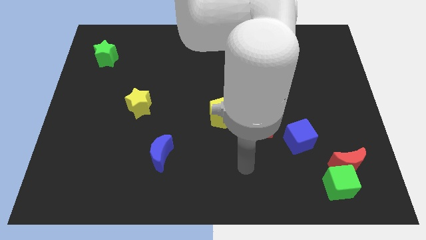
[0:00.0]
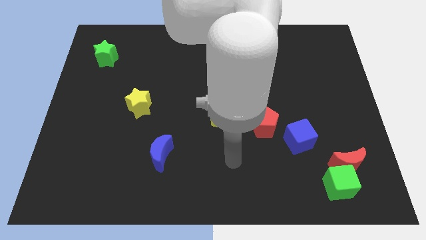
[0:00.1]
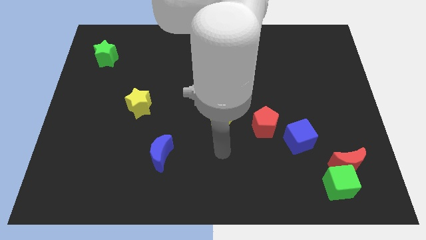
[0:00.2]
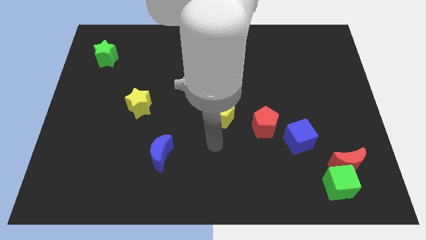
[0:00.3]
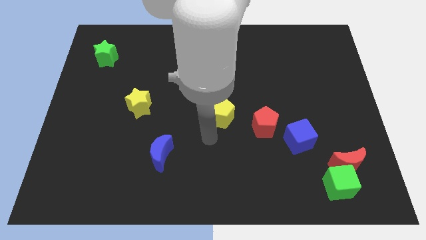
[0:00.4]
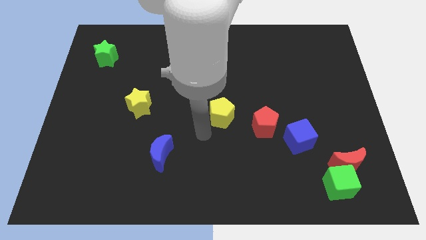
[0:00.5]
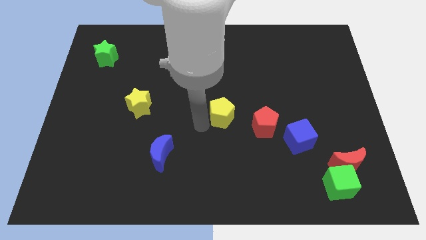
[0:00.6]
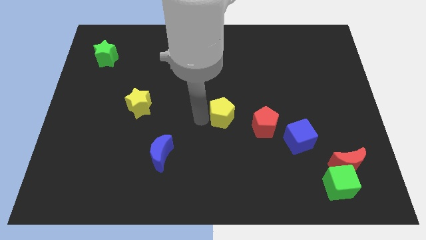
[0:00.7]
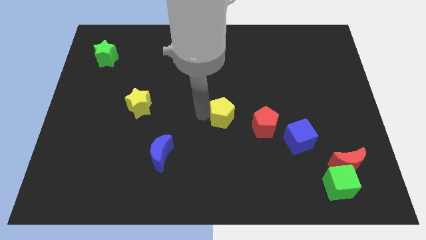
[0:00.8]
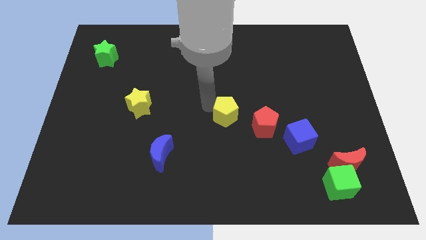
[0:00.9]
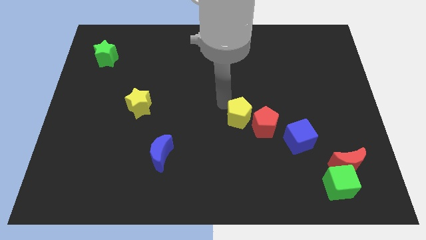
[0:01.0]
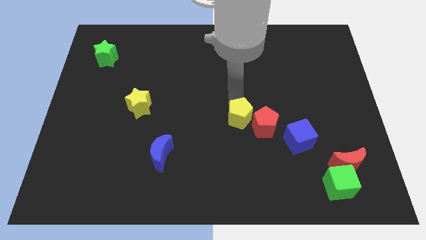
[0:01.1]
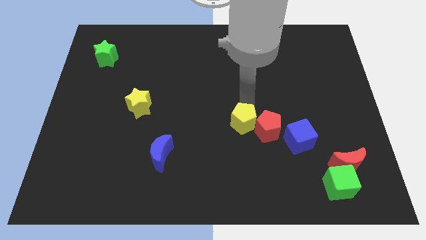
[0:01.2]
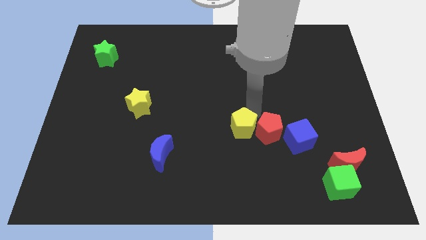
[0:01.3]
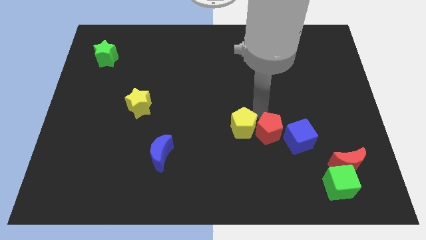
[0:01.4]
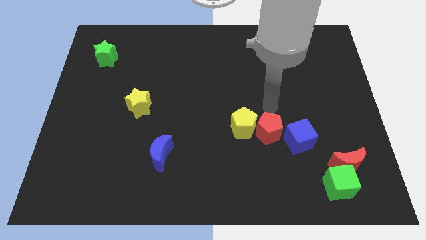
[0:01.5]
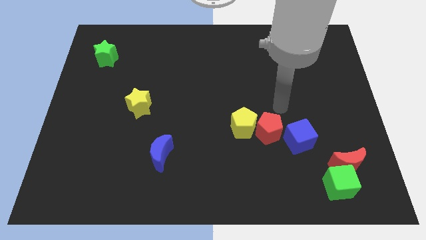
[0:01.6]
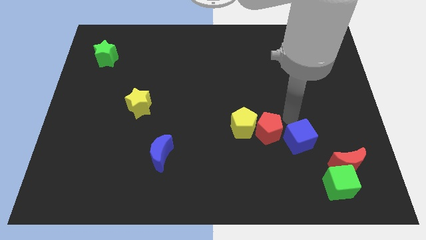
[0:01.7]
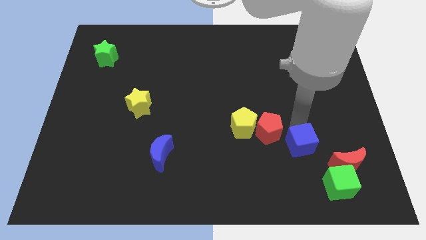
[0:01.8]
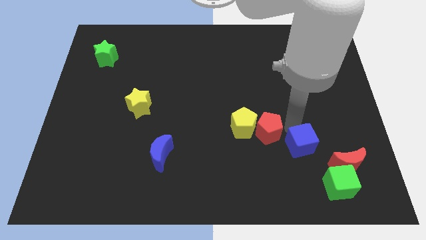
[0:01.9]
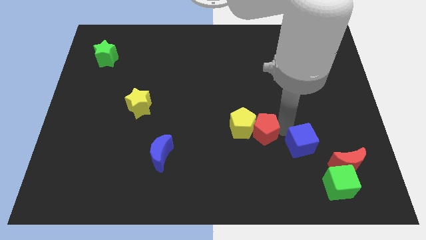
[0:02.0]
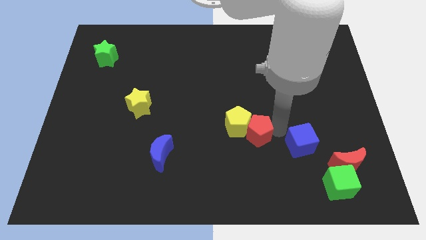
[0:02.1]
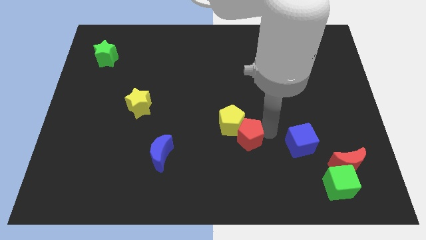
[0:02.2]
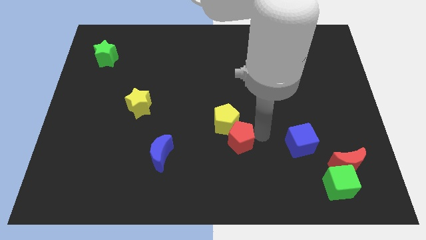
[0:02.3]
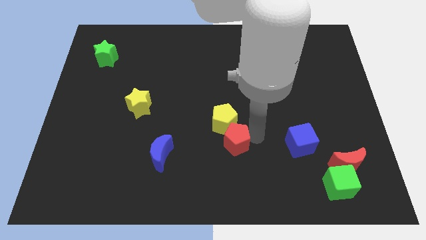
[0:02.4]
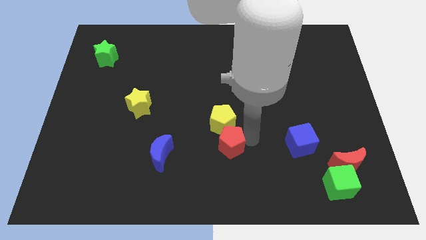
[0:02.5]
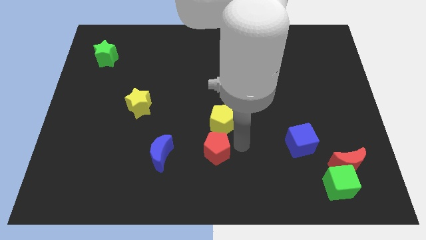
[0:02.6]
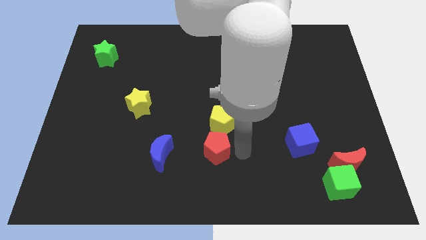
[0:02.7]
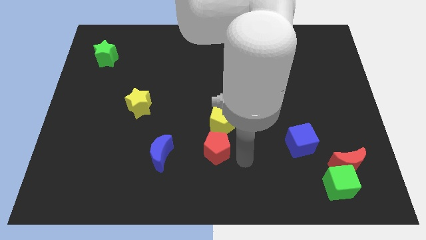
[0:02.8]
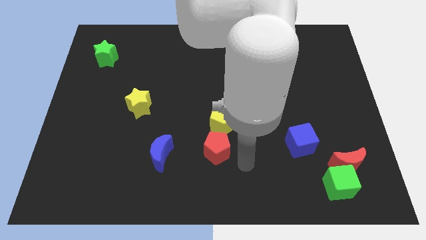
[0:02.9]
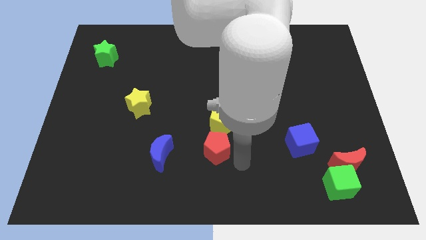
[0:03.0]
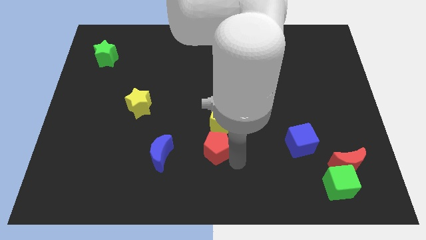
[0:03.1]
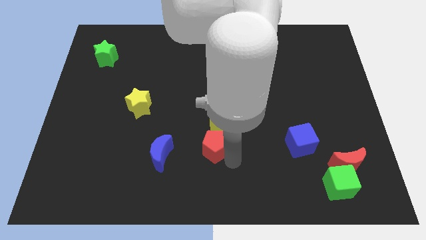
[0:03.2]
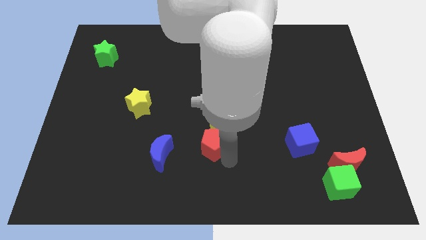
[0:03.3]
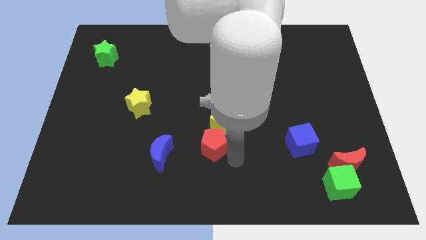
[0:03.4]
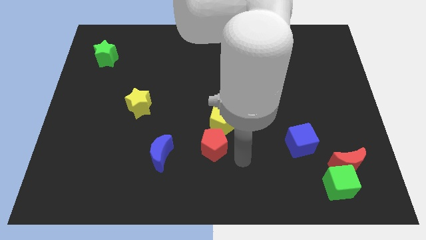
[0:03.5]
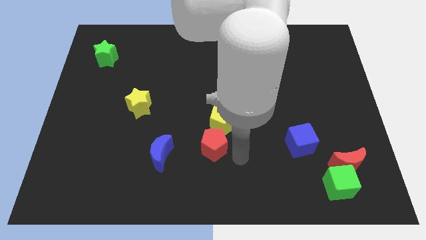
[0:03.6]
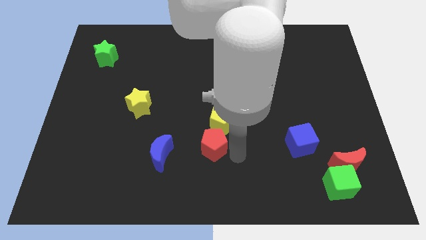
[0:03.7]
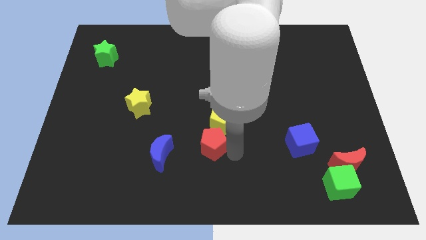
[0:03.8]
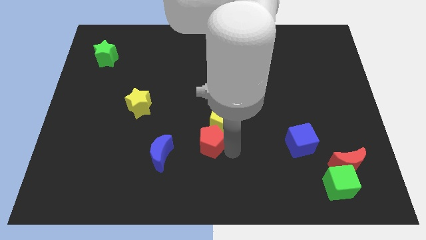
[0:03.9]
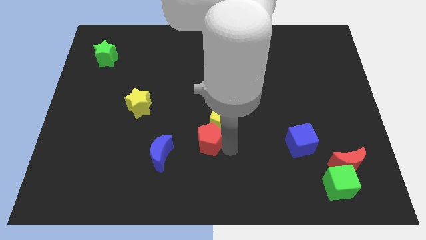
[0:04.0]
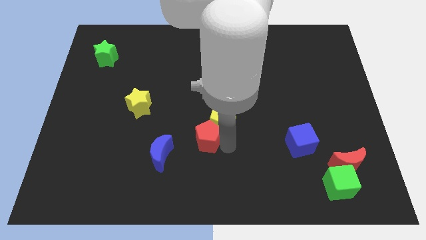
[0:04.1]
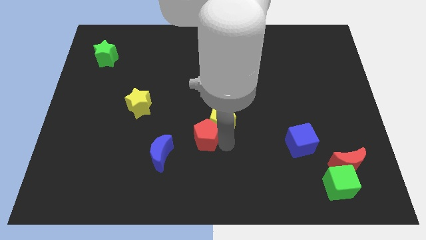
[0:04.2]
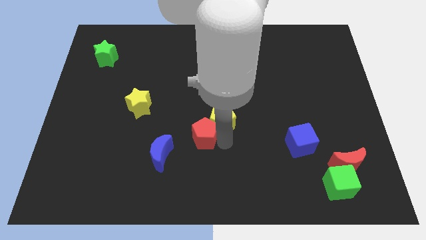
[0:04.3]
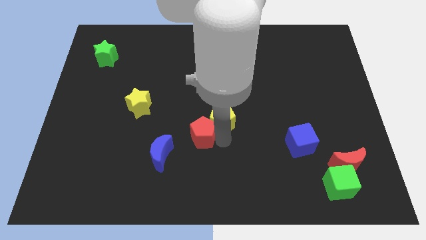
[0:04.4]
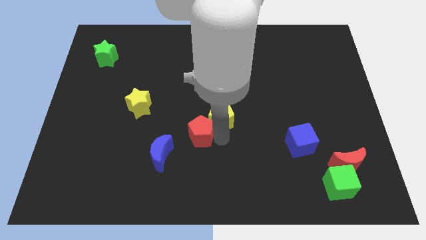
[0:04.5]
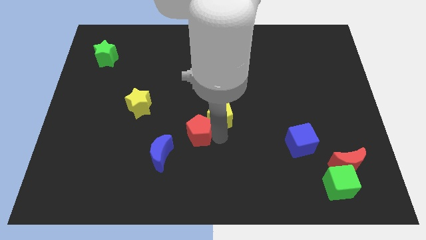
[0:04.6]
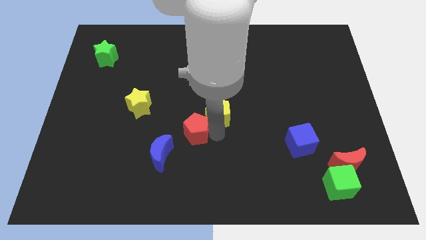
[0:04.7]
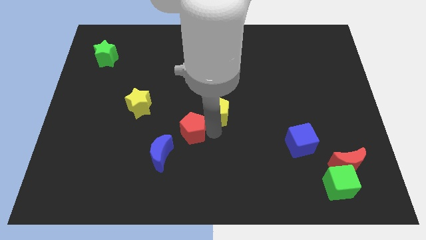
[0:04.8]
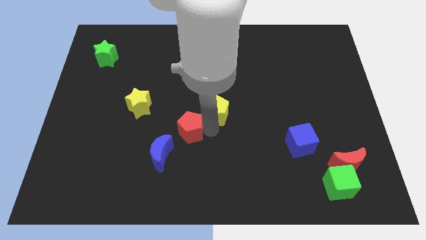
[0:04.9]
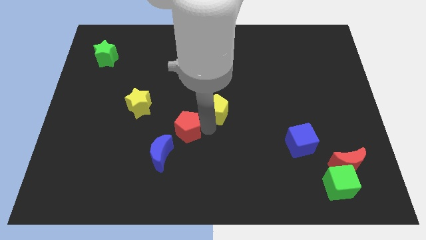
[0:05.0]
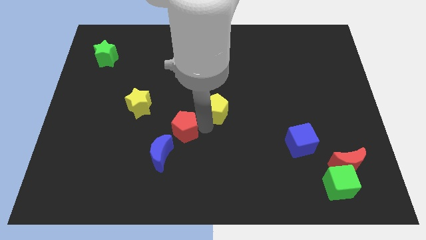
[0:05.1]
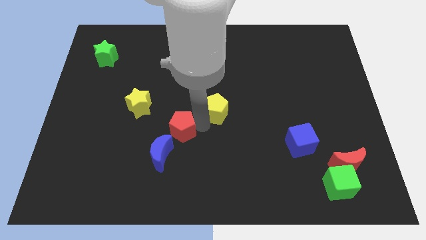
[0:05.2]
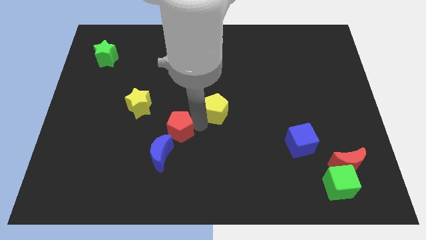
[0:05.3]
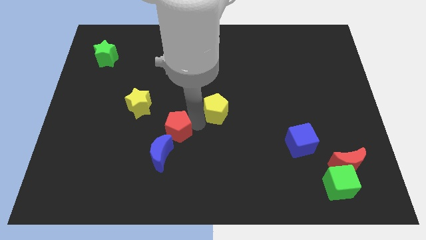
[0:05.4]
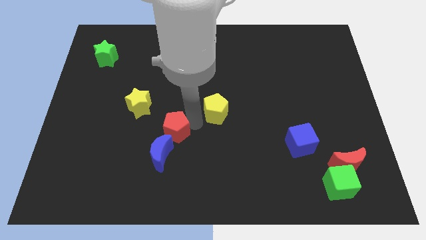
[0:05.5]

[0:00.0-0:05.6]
move the red pentagon to the left

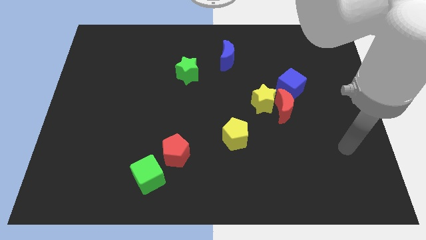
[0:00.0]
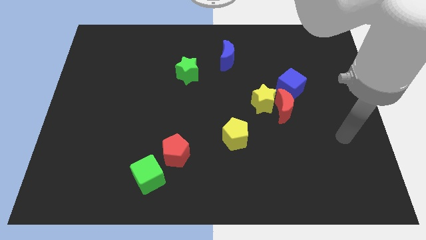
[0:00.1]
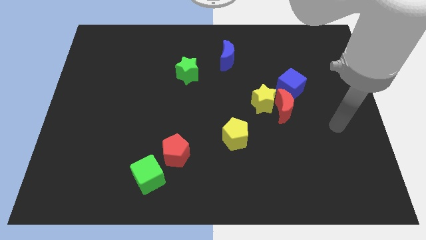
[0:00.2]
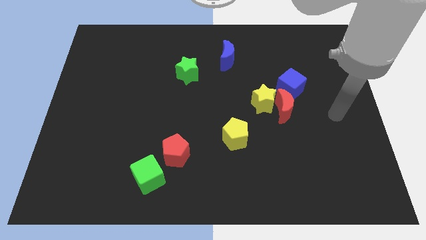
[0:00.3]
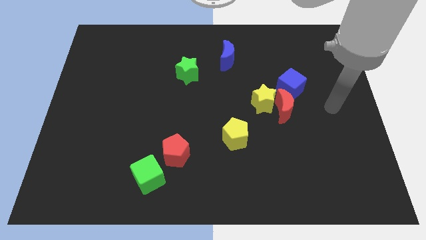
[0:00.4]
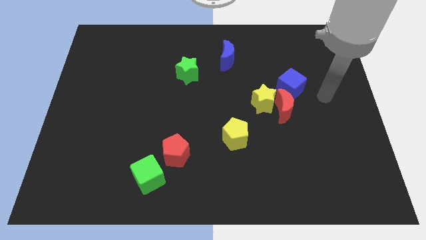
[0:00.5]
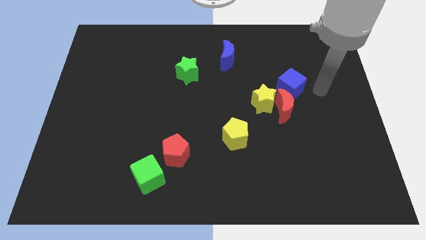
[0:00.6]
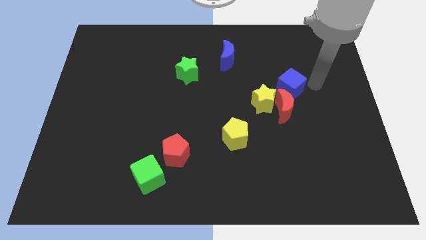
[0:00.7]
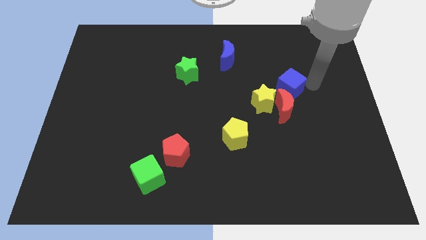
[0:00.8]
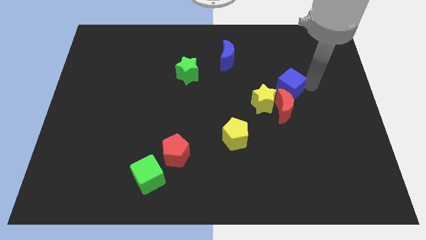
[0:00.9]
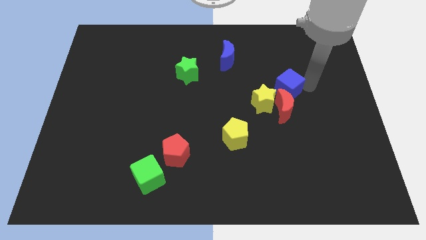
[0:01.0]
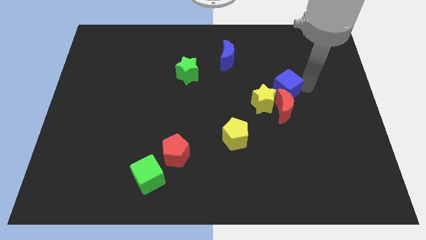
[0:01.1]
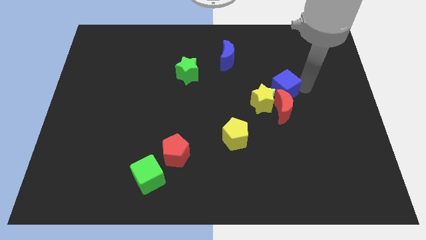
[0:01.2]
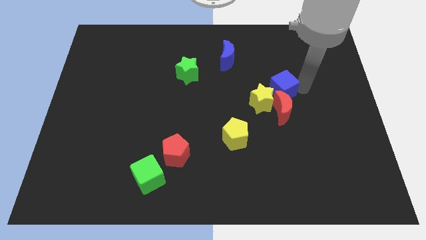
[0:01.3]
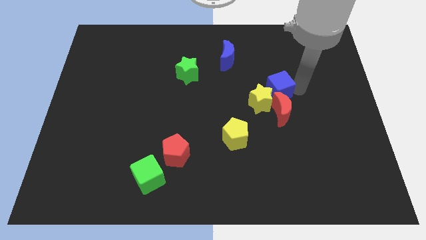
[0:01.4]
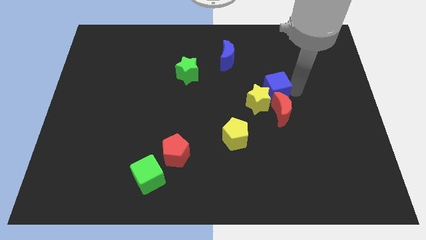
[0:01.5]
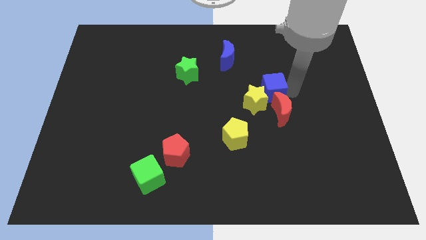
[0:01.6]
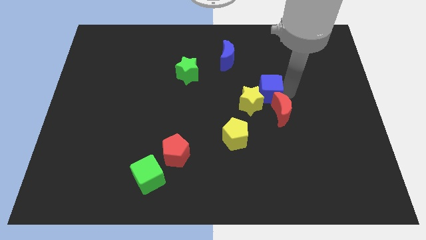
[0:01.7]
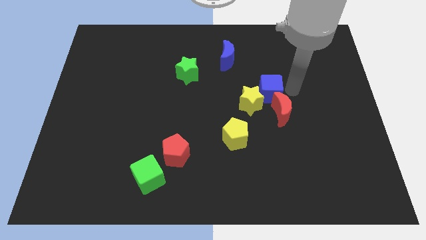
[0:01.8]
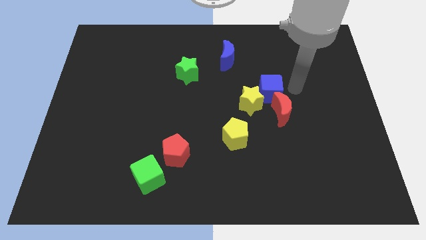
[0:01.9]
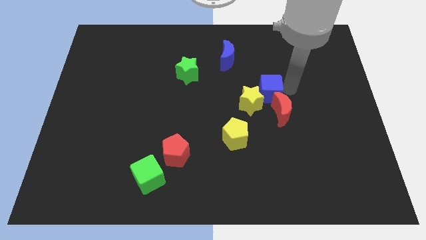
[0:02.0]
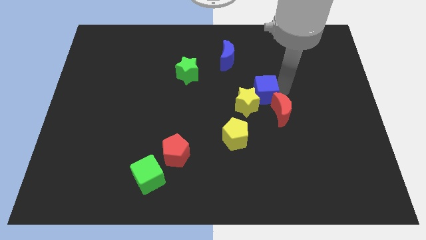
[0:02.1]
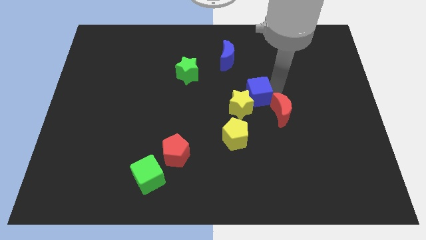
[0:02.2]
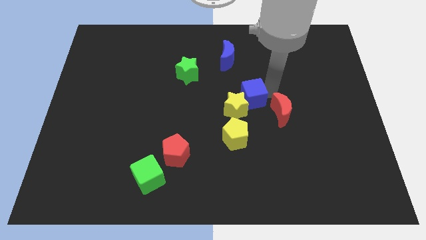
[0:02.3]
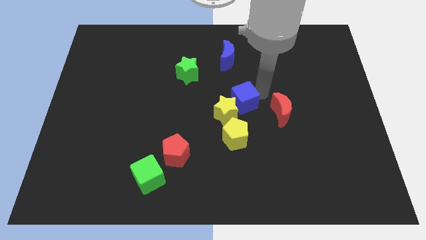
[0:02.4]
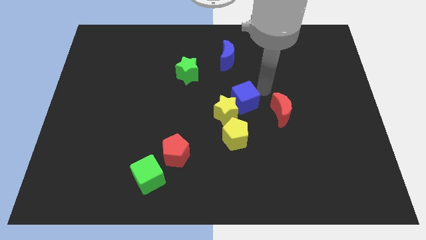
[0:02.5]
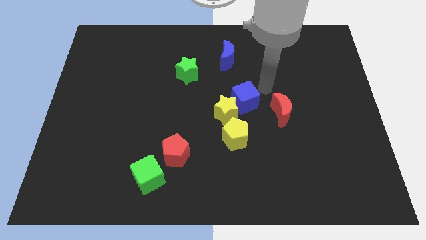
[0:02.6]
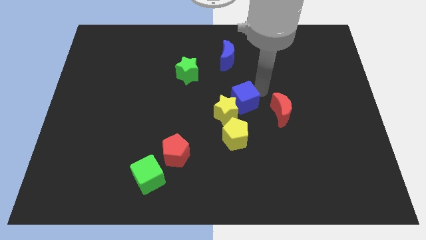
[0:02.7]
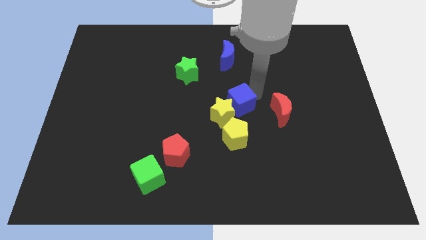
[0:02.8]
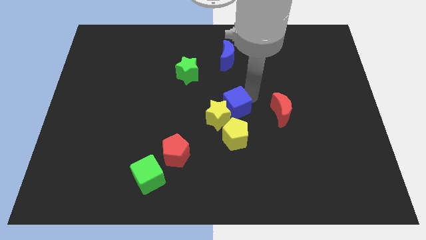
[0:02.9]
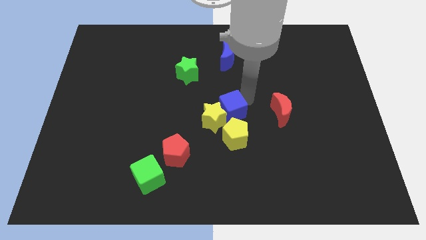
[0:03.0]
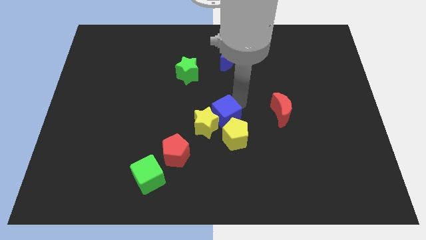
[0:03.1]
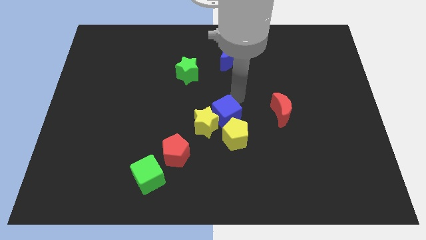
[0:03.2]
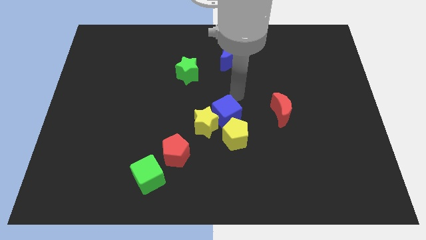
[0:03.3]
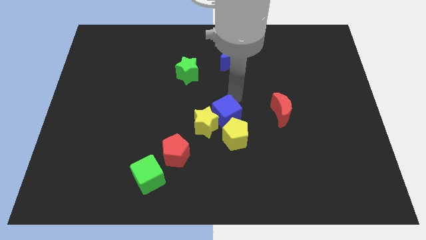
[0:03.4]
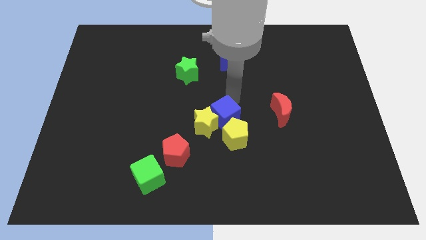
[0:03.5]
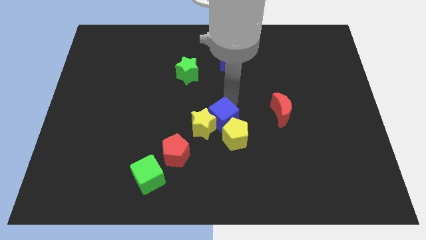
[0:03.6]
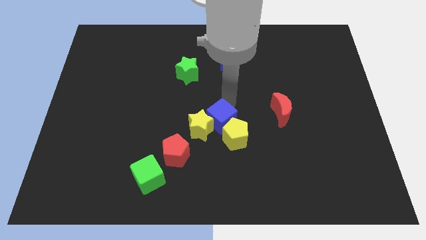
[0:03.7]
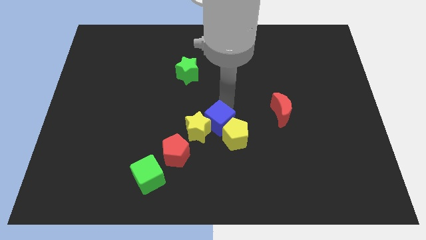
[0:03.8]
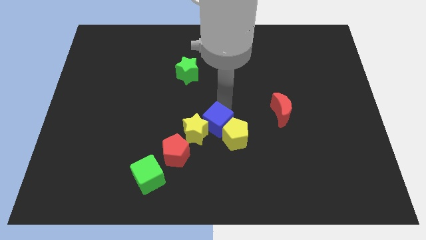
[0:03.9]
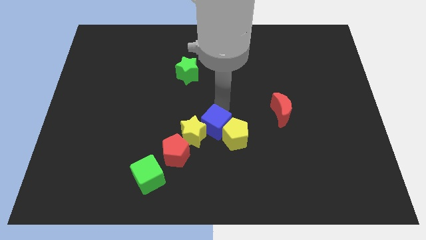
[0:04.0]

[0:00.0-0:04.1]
move the blue cube down and then to the left
